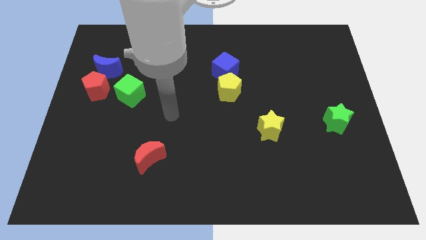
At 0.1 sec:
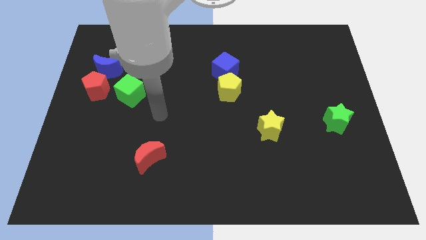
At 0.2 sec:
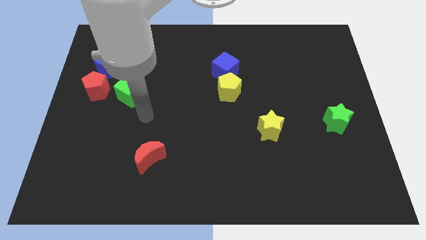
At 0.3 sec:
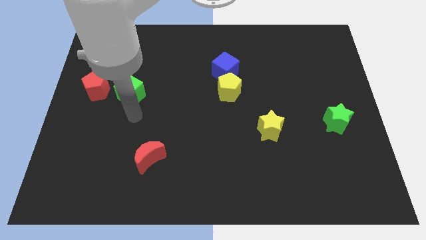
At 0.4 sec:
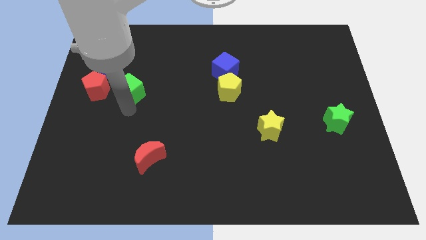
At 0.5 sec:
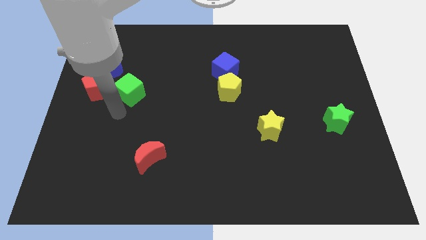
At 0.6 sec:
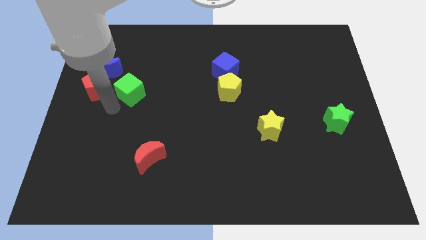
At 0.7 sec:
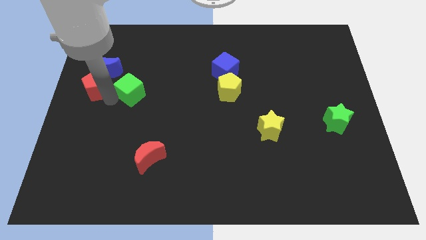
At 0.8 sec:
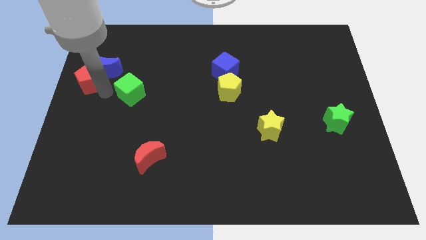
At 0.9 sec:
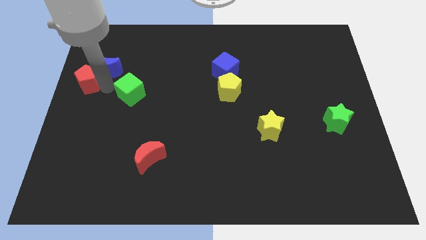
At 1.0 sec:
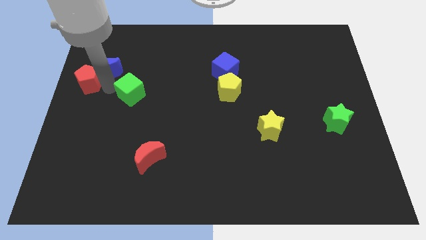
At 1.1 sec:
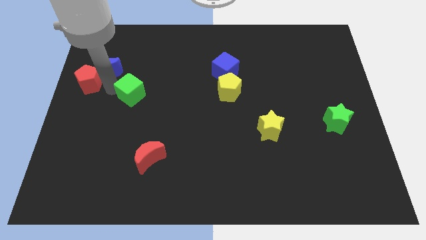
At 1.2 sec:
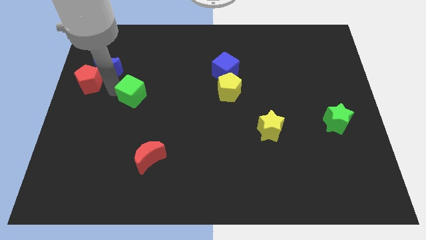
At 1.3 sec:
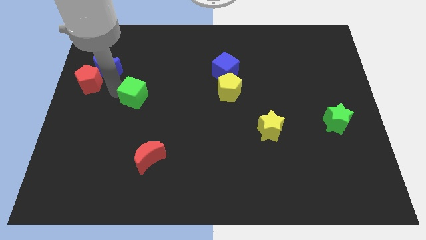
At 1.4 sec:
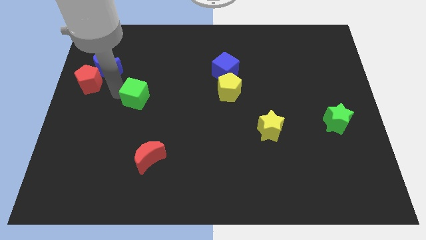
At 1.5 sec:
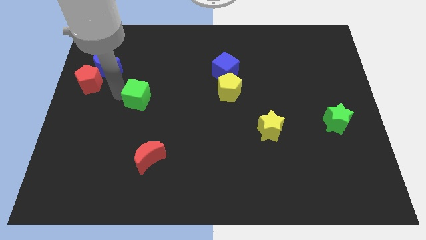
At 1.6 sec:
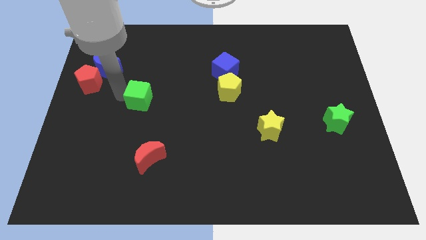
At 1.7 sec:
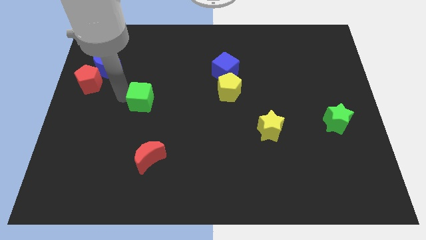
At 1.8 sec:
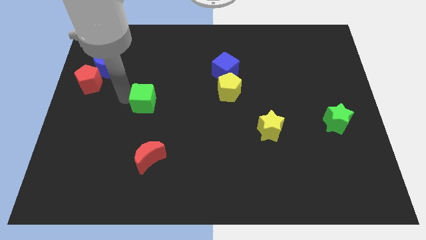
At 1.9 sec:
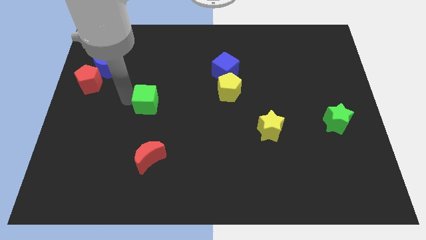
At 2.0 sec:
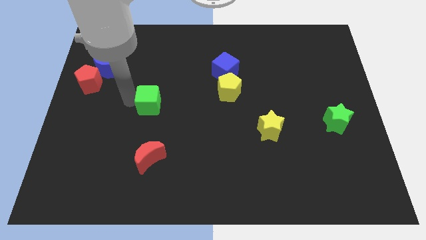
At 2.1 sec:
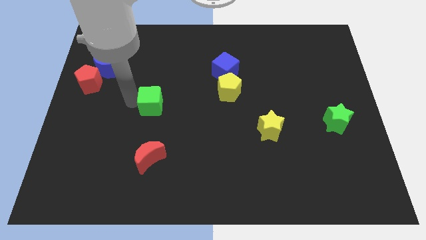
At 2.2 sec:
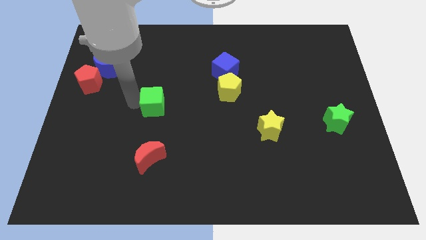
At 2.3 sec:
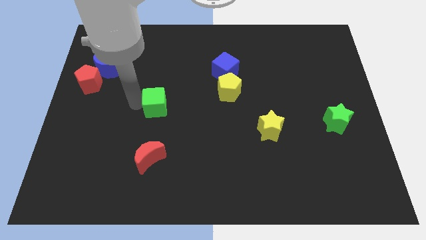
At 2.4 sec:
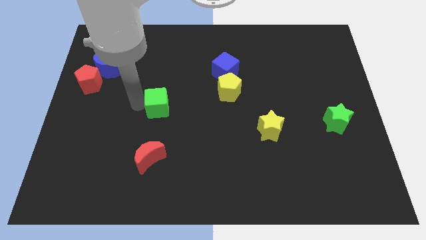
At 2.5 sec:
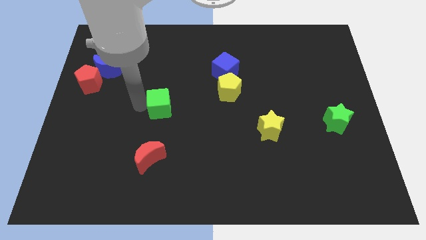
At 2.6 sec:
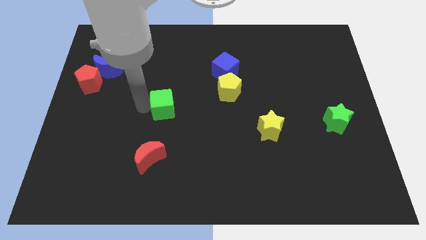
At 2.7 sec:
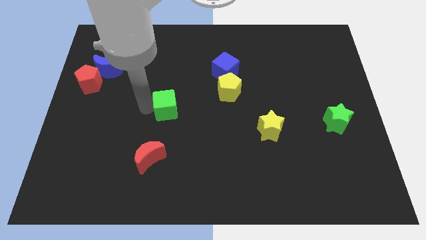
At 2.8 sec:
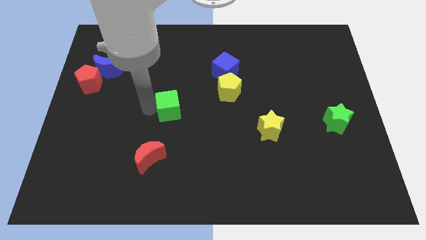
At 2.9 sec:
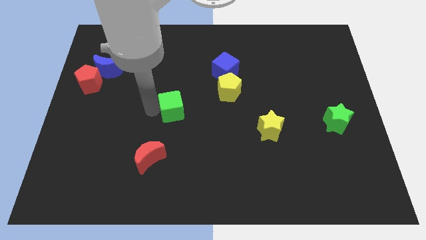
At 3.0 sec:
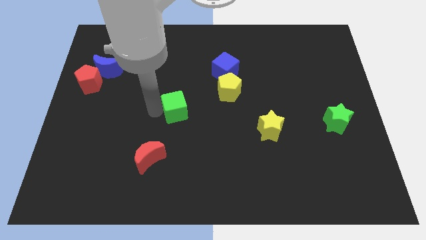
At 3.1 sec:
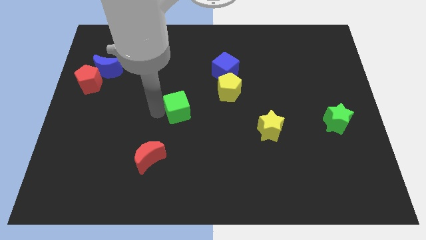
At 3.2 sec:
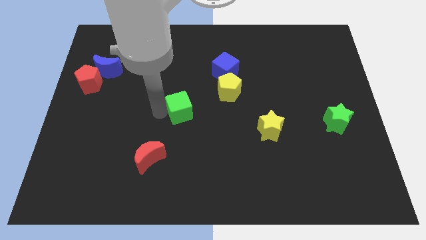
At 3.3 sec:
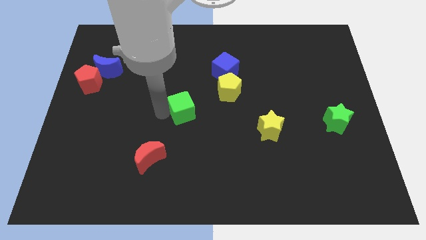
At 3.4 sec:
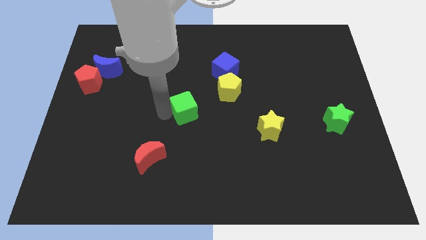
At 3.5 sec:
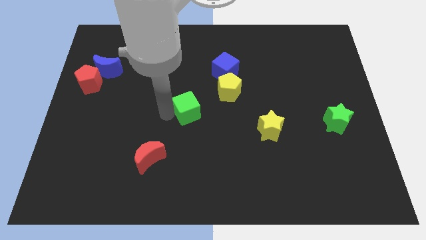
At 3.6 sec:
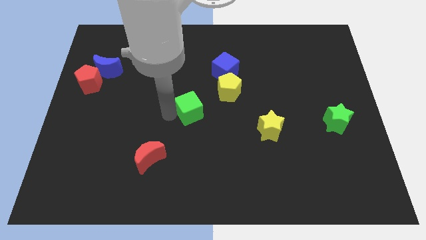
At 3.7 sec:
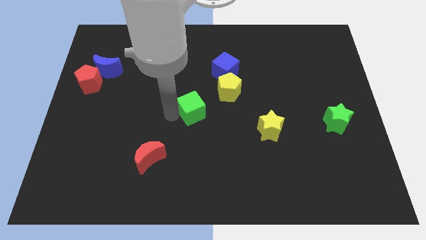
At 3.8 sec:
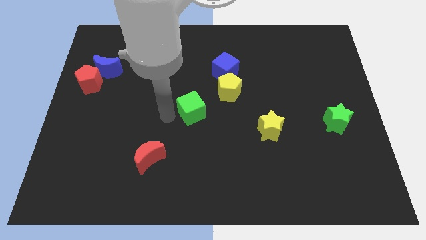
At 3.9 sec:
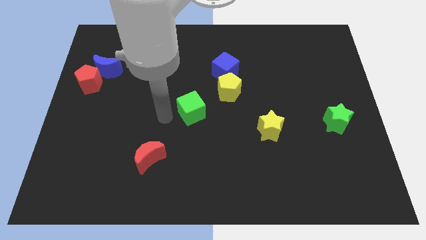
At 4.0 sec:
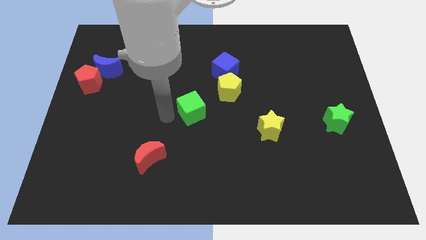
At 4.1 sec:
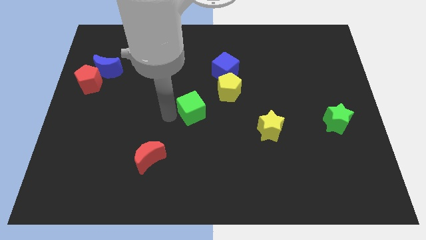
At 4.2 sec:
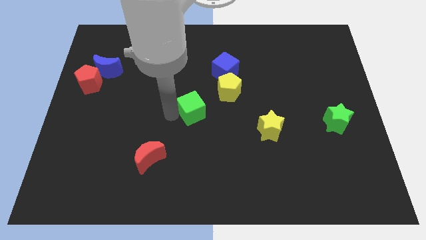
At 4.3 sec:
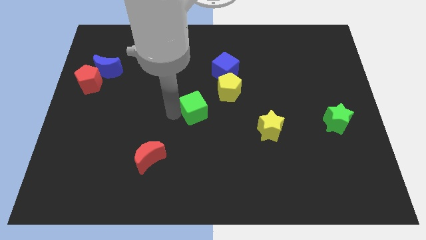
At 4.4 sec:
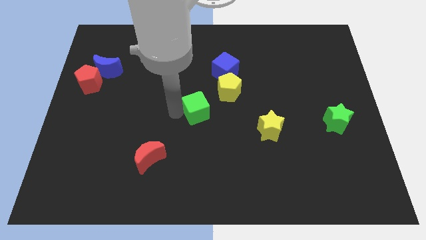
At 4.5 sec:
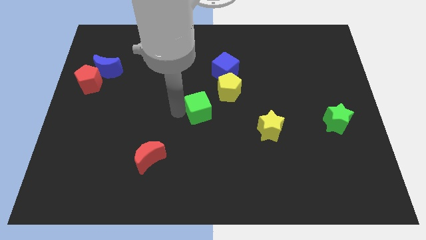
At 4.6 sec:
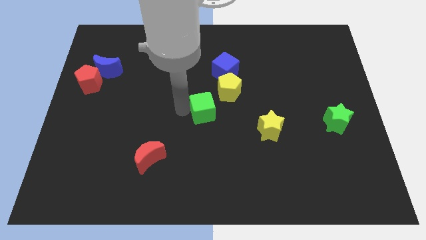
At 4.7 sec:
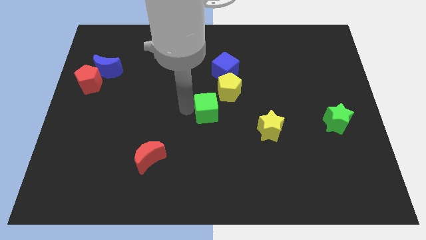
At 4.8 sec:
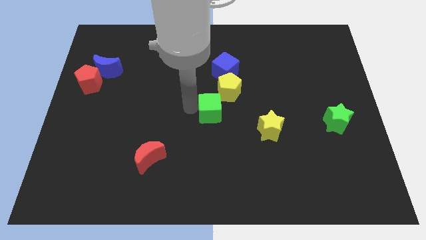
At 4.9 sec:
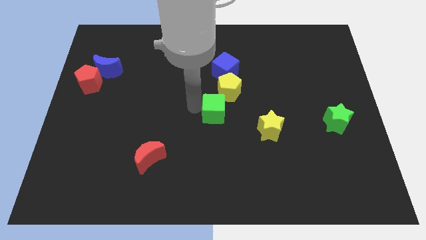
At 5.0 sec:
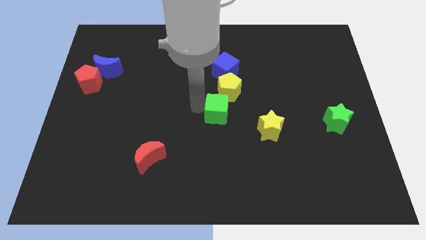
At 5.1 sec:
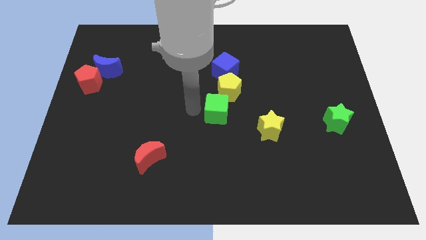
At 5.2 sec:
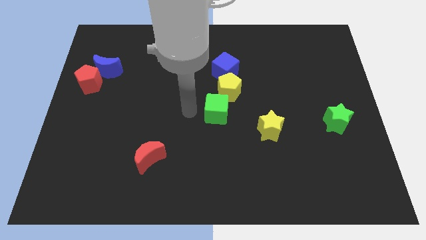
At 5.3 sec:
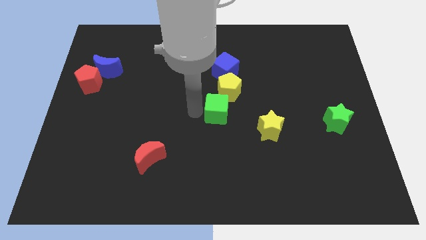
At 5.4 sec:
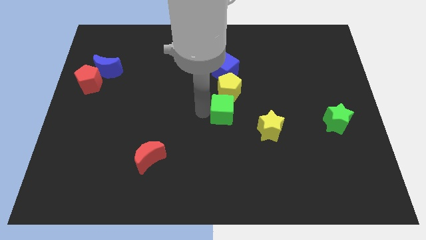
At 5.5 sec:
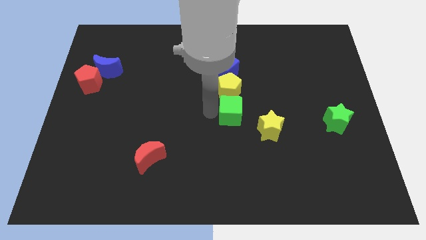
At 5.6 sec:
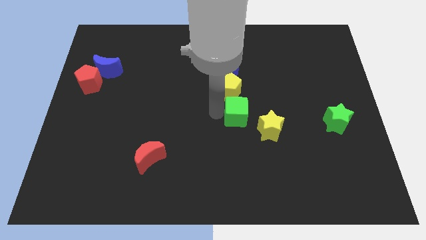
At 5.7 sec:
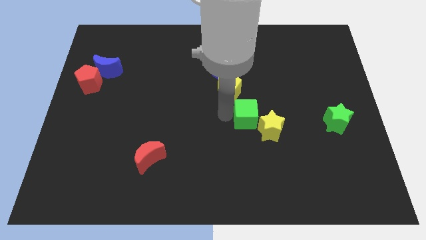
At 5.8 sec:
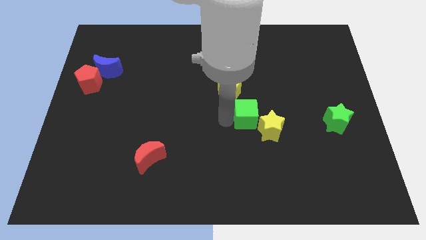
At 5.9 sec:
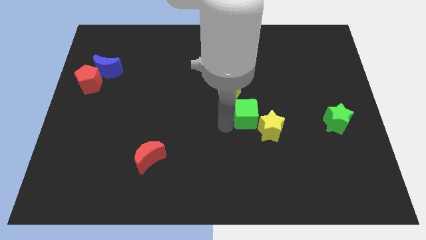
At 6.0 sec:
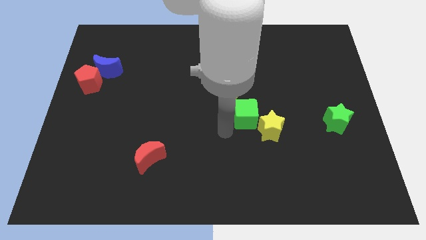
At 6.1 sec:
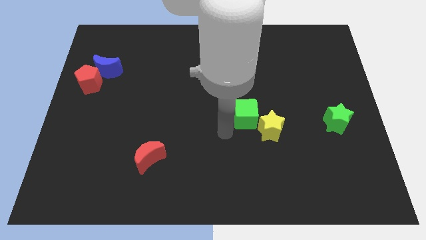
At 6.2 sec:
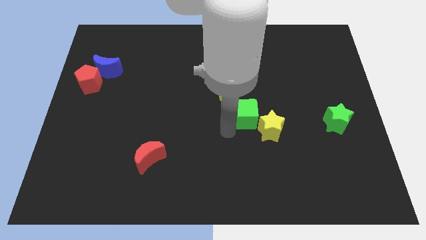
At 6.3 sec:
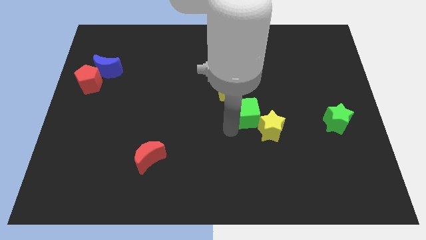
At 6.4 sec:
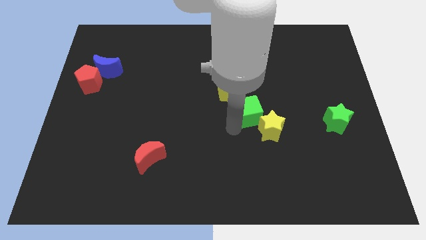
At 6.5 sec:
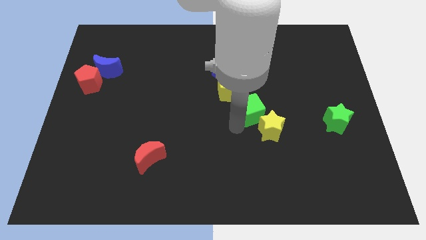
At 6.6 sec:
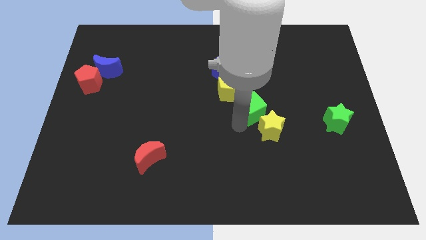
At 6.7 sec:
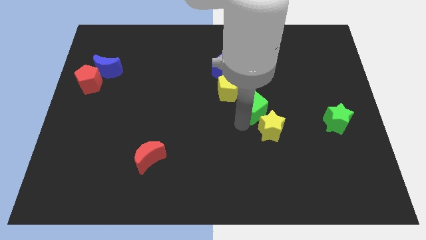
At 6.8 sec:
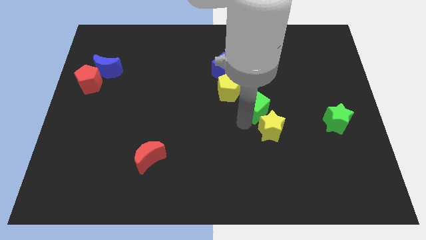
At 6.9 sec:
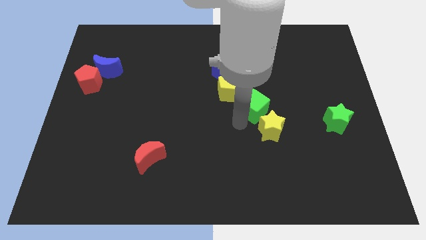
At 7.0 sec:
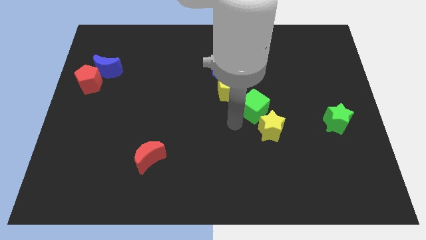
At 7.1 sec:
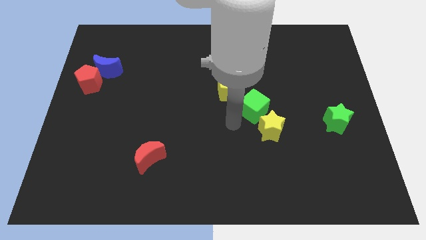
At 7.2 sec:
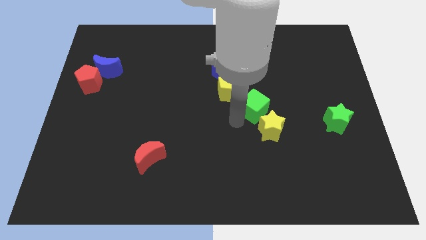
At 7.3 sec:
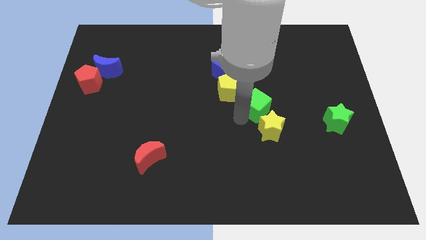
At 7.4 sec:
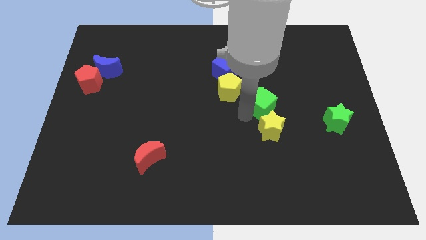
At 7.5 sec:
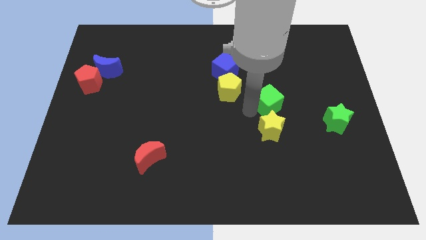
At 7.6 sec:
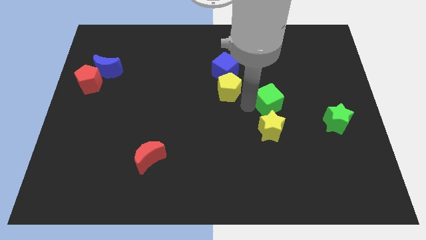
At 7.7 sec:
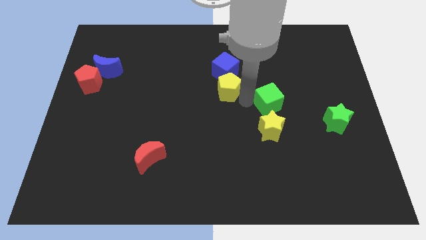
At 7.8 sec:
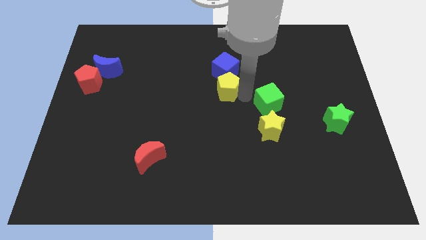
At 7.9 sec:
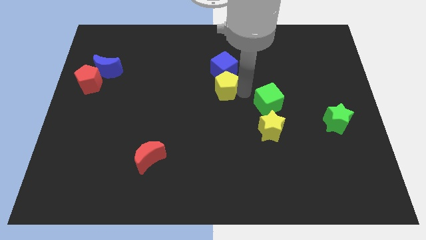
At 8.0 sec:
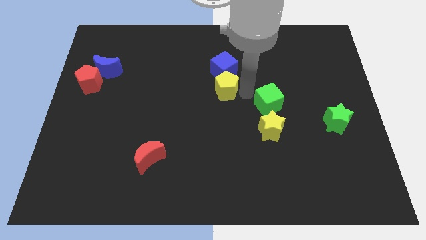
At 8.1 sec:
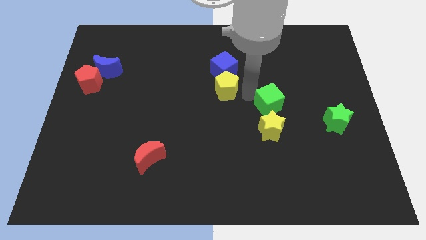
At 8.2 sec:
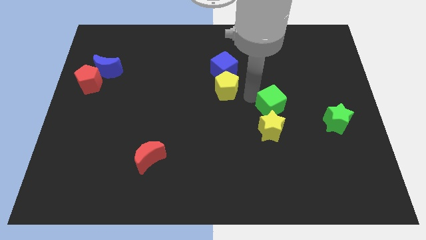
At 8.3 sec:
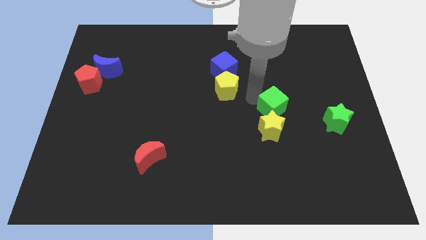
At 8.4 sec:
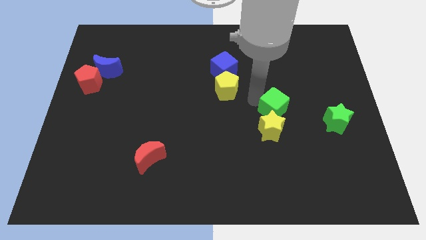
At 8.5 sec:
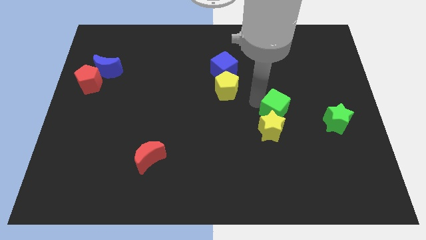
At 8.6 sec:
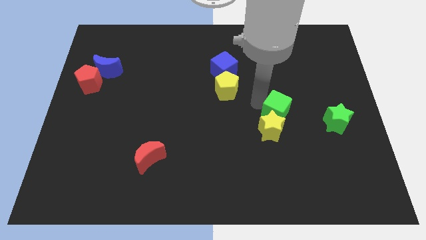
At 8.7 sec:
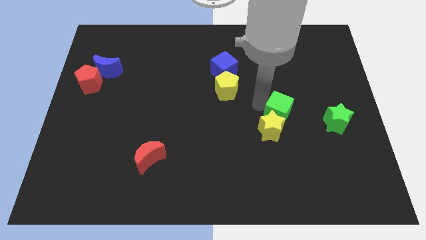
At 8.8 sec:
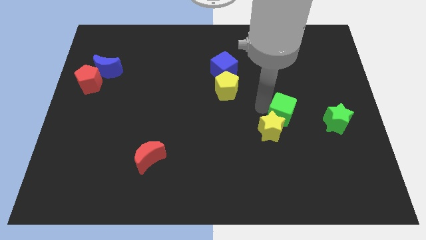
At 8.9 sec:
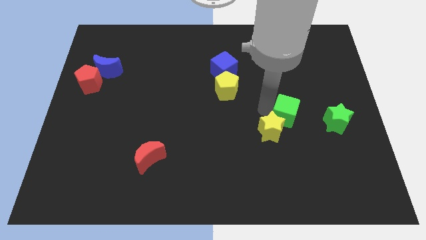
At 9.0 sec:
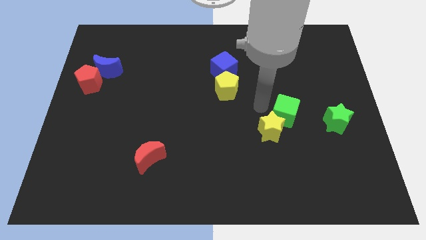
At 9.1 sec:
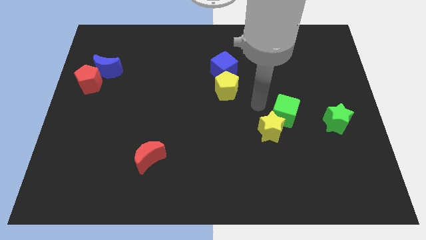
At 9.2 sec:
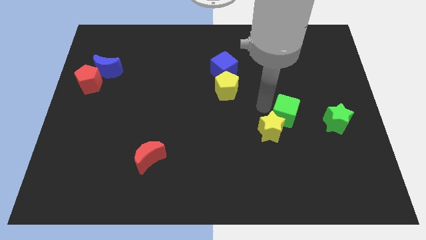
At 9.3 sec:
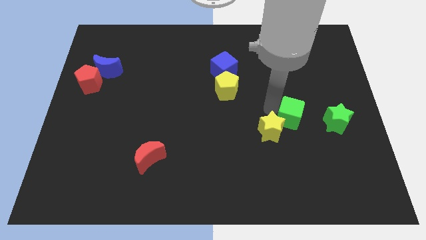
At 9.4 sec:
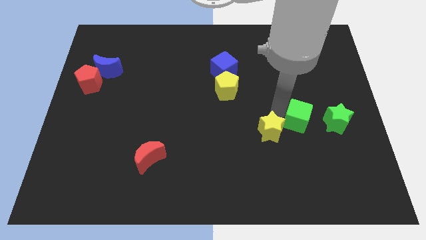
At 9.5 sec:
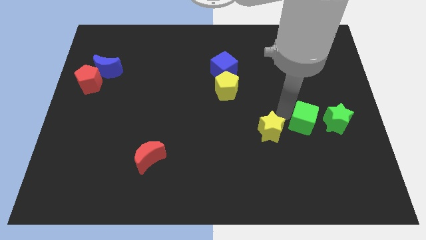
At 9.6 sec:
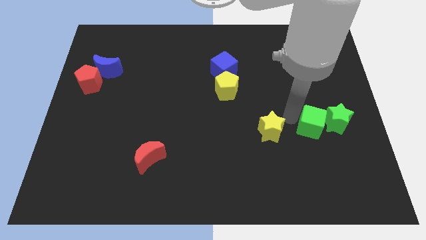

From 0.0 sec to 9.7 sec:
put the green cube towards the green star
